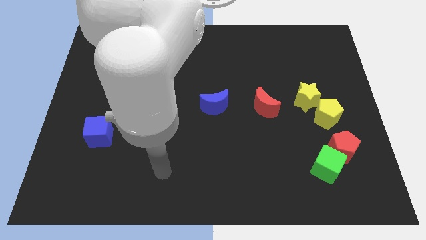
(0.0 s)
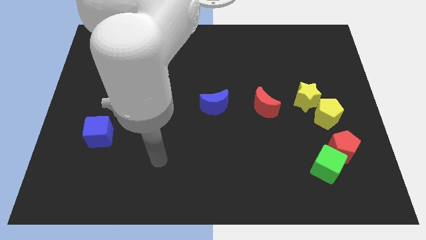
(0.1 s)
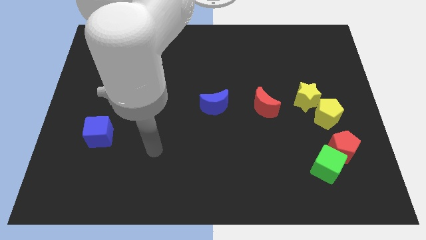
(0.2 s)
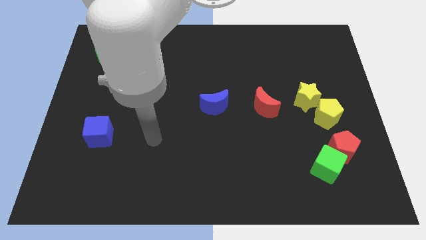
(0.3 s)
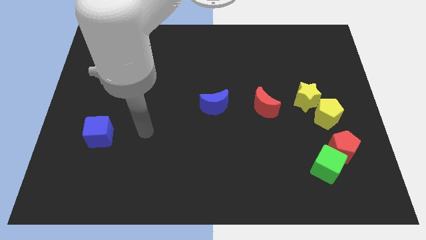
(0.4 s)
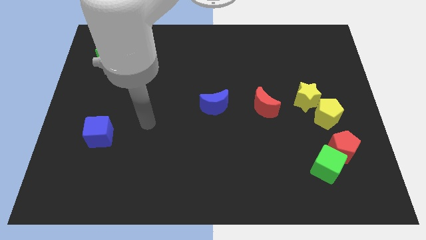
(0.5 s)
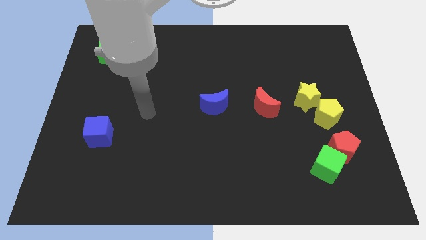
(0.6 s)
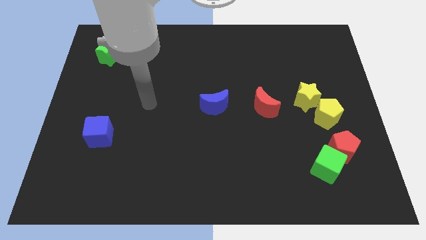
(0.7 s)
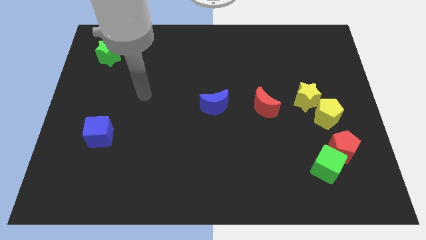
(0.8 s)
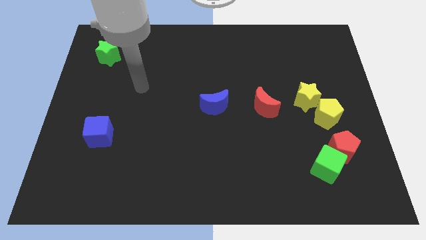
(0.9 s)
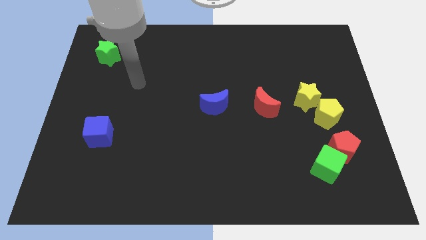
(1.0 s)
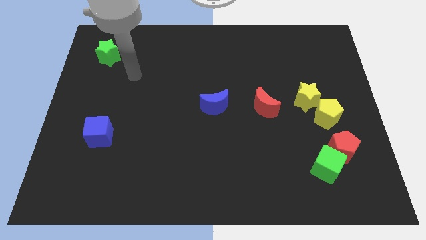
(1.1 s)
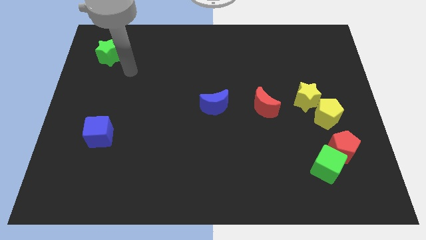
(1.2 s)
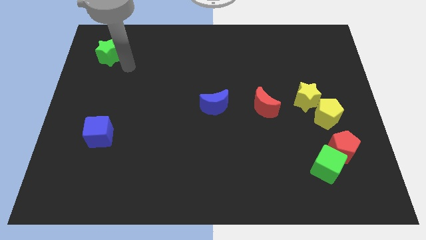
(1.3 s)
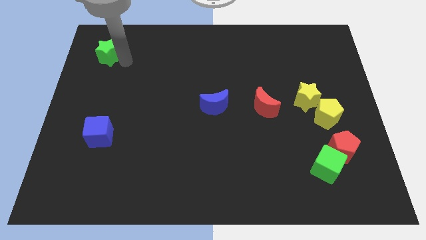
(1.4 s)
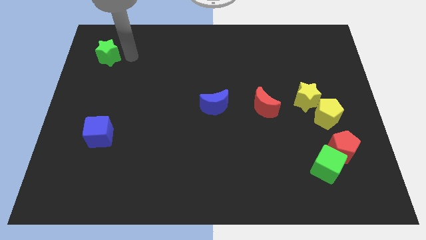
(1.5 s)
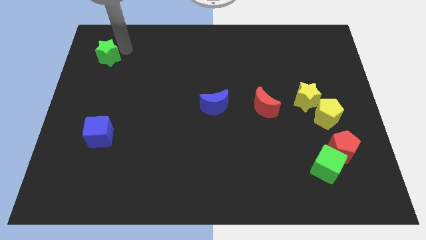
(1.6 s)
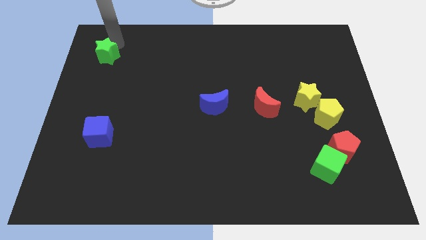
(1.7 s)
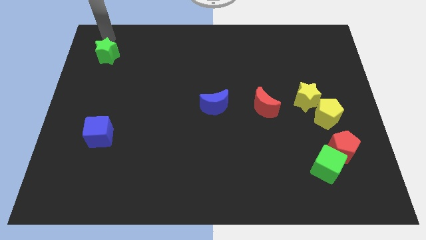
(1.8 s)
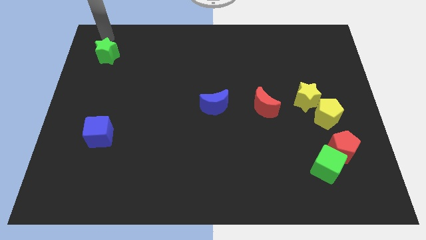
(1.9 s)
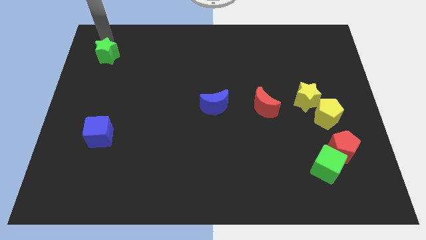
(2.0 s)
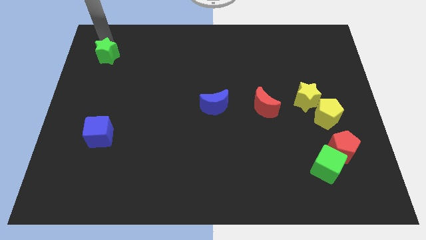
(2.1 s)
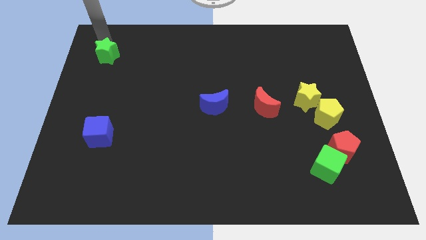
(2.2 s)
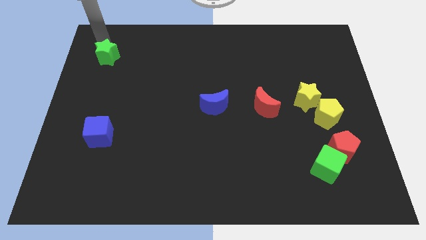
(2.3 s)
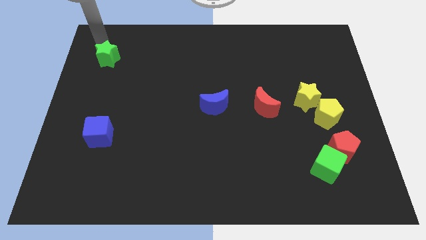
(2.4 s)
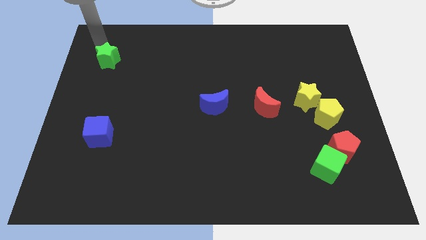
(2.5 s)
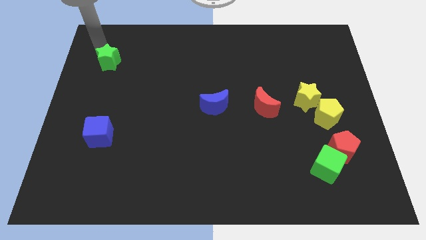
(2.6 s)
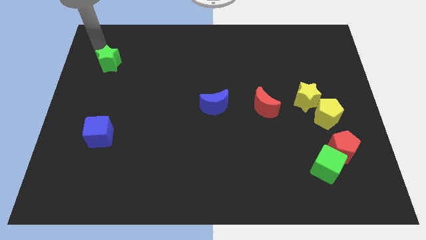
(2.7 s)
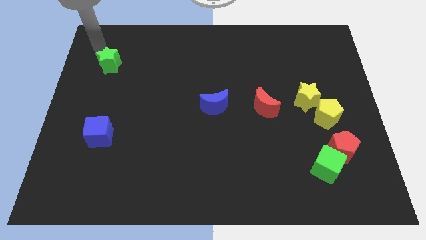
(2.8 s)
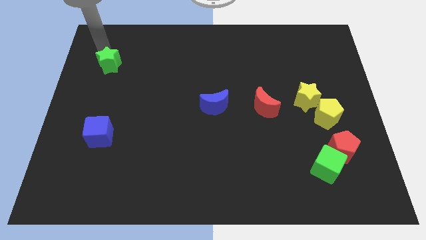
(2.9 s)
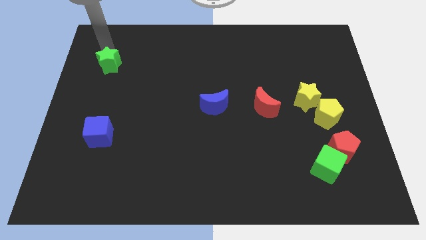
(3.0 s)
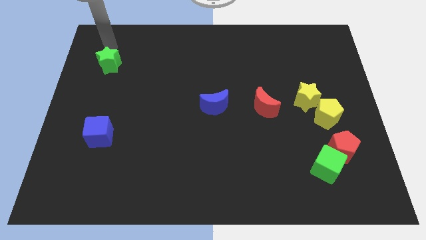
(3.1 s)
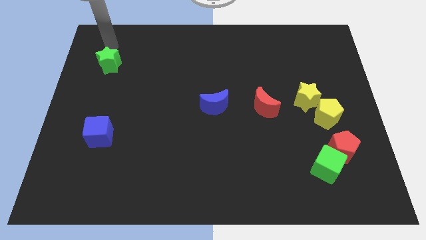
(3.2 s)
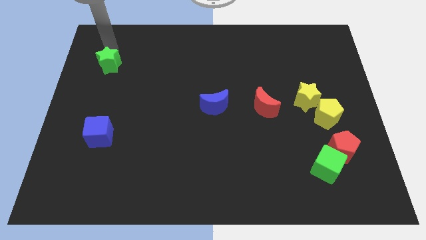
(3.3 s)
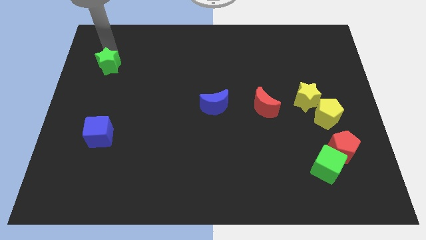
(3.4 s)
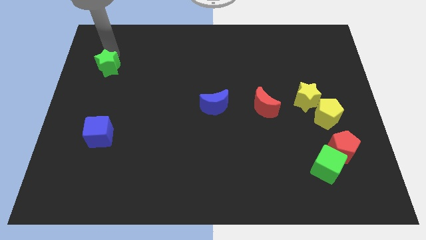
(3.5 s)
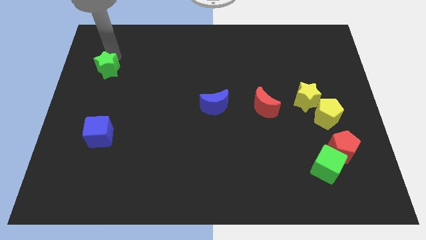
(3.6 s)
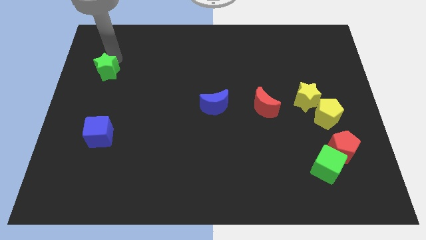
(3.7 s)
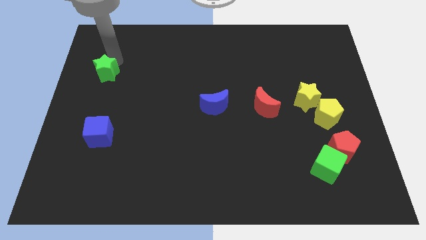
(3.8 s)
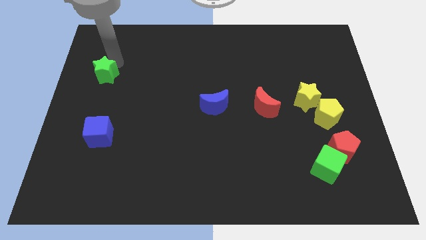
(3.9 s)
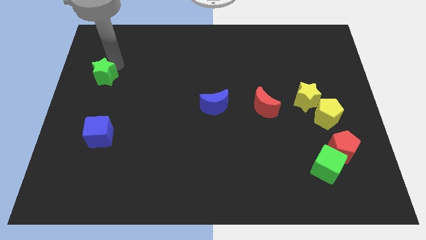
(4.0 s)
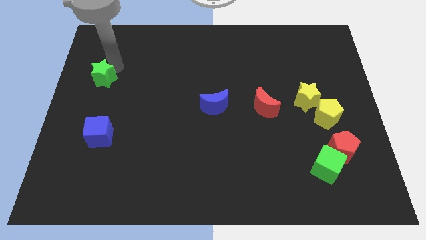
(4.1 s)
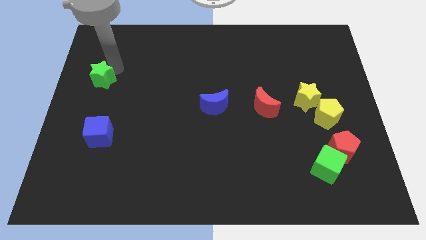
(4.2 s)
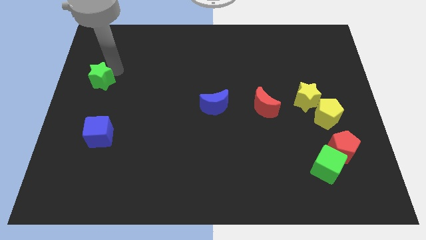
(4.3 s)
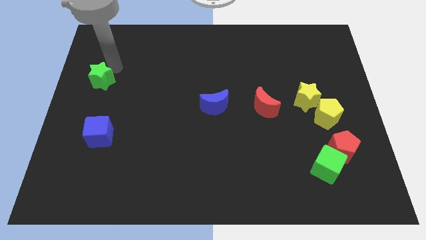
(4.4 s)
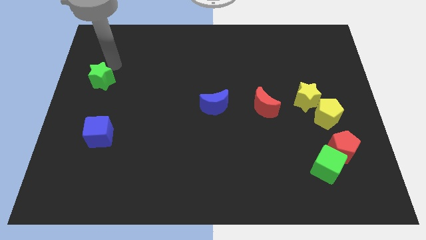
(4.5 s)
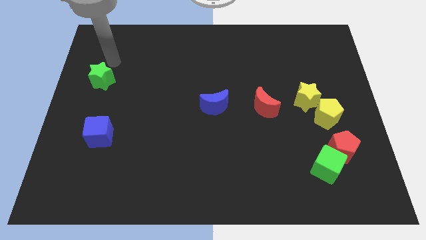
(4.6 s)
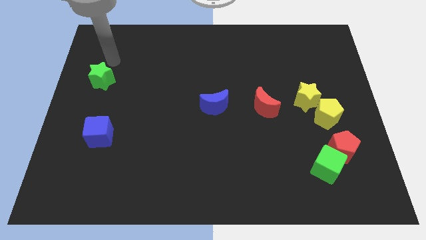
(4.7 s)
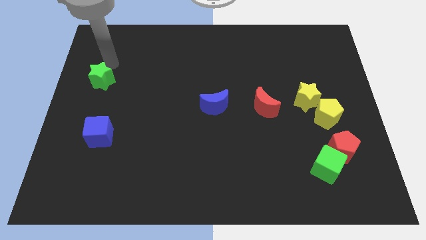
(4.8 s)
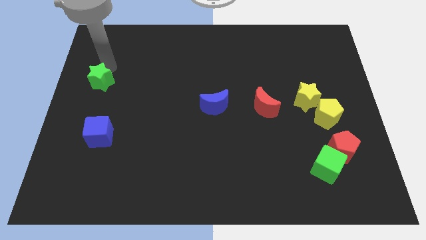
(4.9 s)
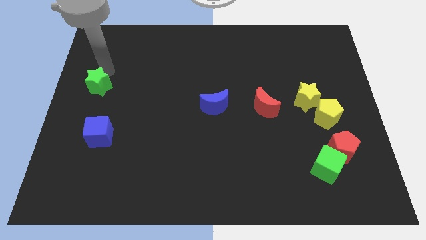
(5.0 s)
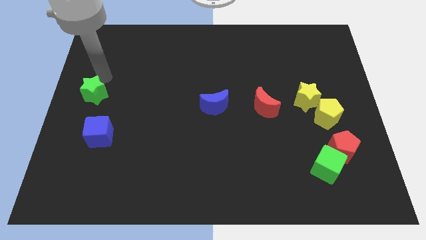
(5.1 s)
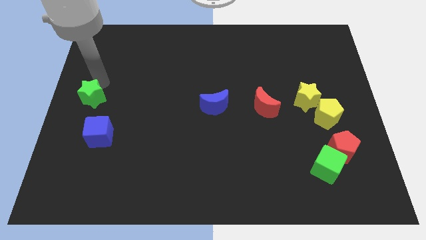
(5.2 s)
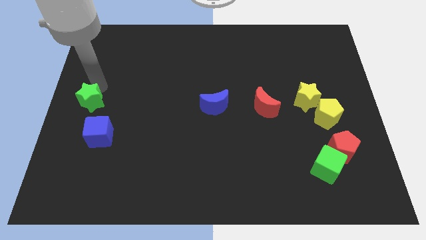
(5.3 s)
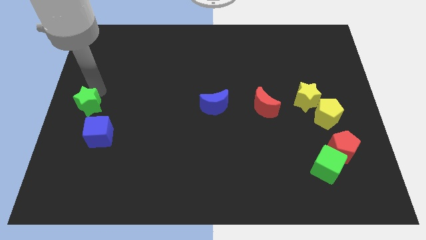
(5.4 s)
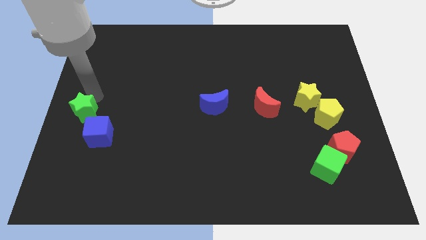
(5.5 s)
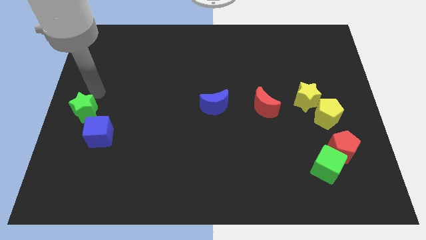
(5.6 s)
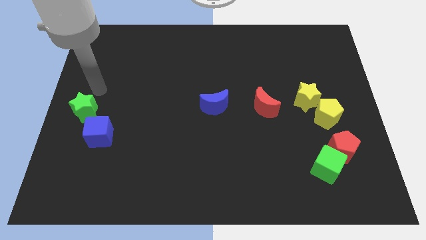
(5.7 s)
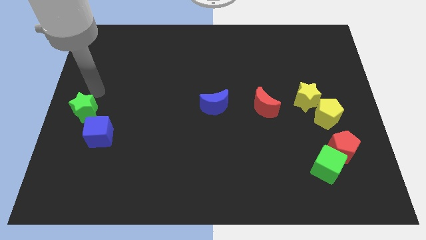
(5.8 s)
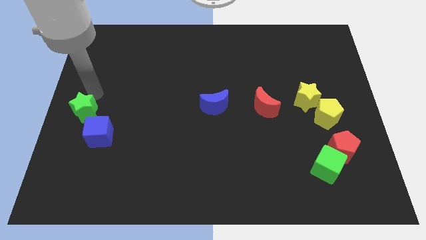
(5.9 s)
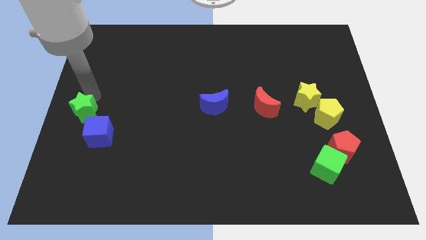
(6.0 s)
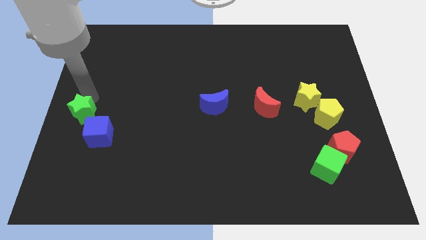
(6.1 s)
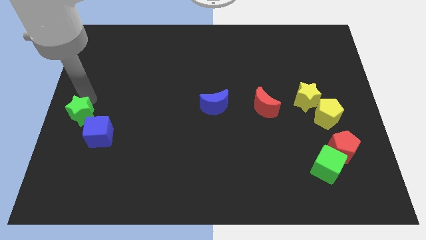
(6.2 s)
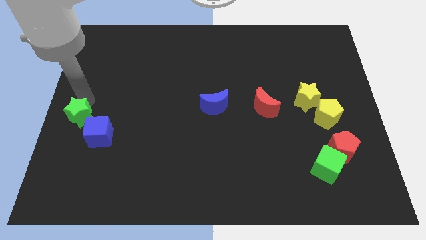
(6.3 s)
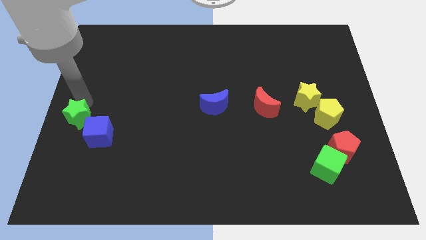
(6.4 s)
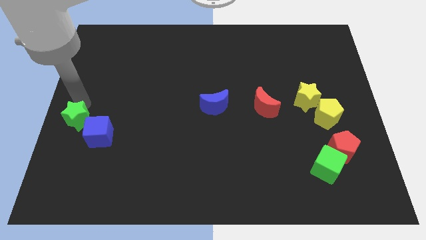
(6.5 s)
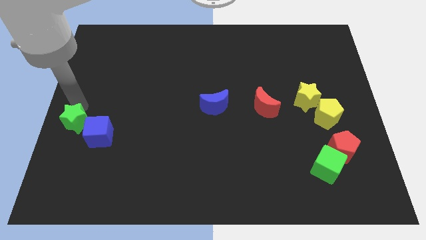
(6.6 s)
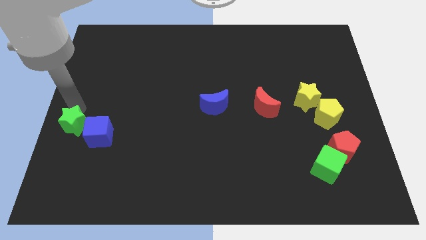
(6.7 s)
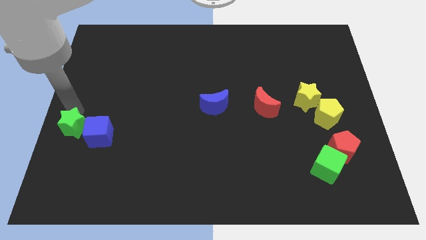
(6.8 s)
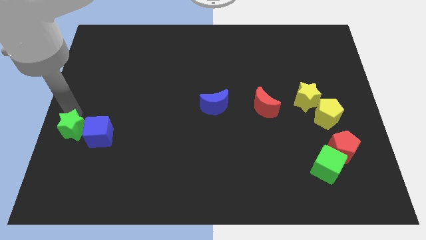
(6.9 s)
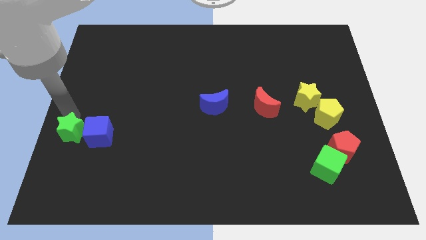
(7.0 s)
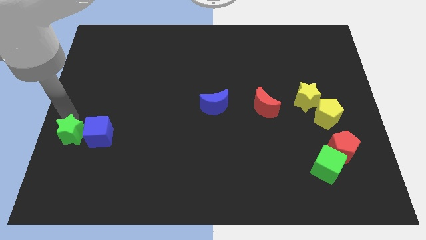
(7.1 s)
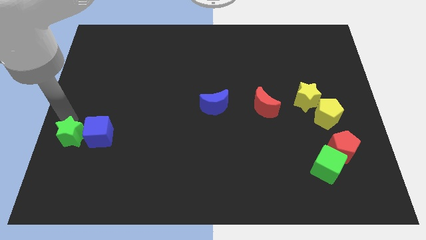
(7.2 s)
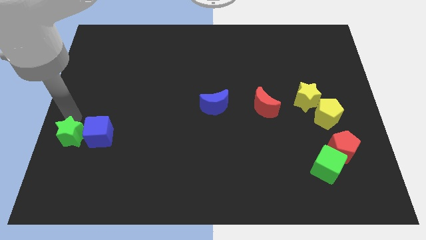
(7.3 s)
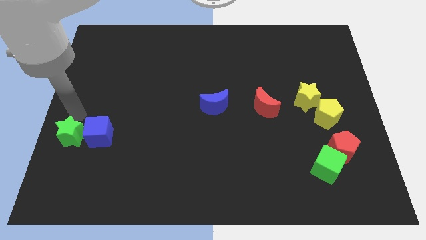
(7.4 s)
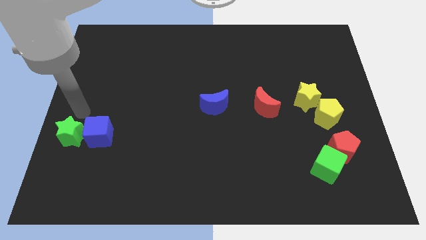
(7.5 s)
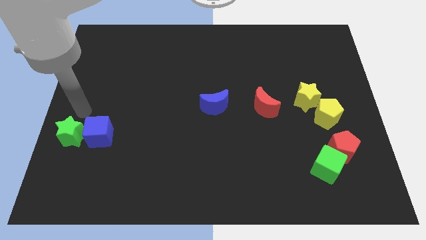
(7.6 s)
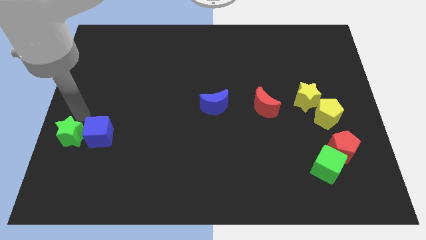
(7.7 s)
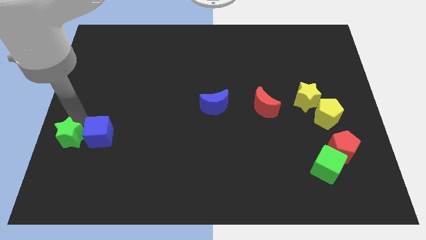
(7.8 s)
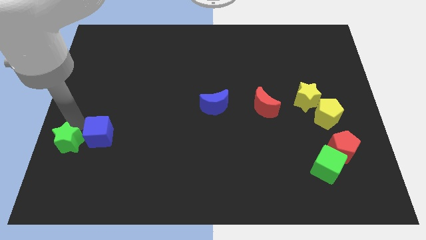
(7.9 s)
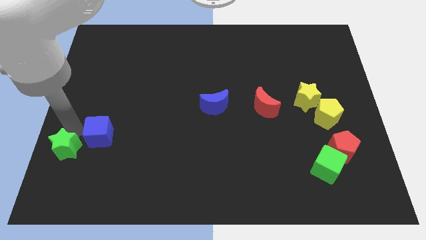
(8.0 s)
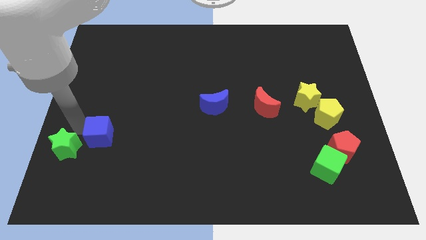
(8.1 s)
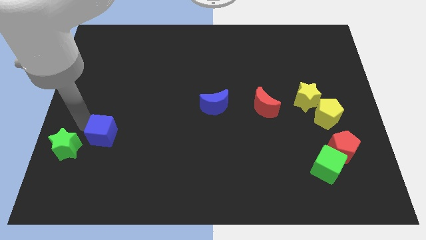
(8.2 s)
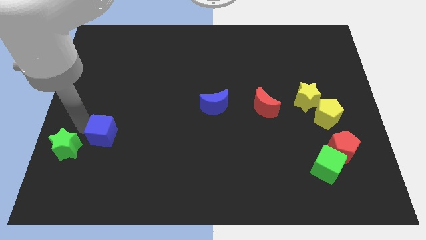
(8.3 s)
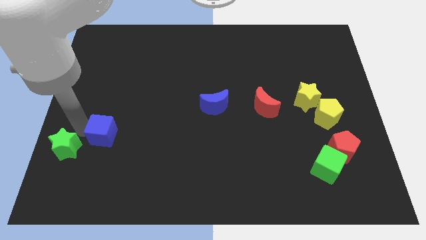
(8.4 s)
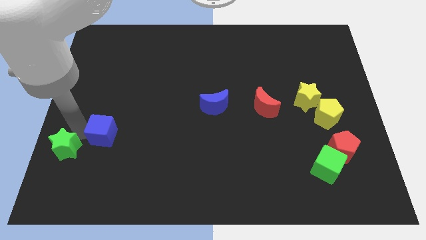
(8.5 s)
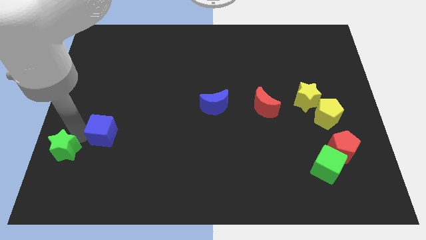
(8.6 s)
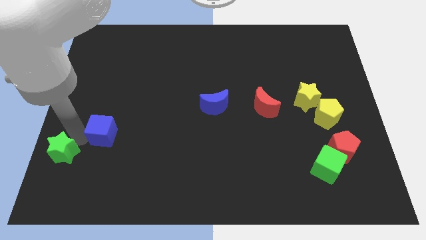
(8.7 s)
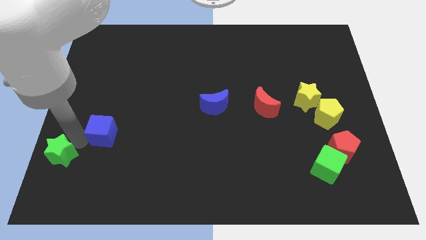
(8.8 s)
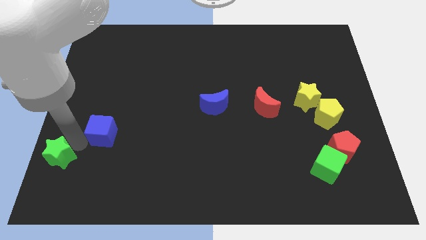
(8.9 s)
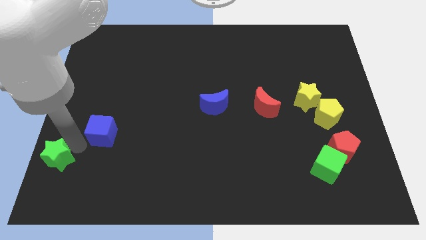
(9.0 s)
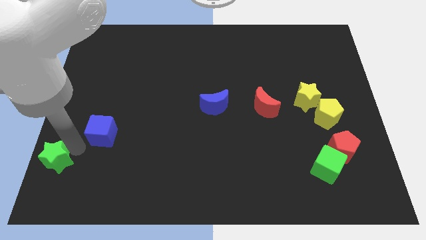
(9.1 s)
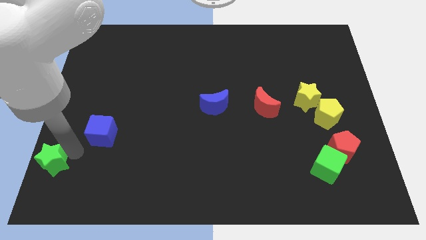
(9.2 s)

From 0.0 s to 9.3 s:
push the green star to the lower left corner
